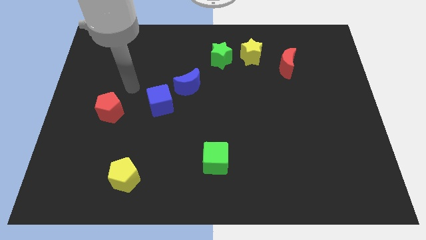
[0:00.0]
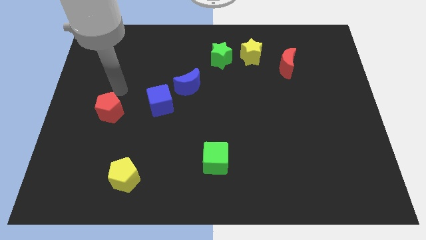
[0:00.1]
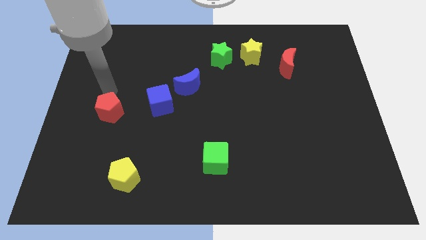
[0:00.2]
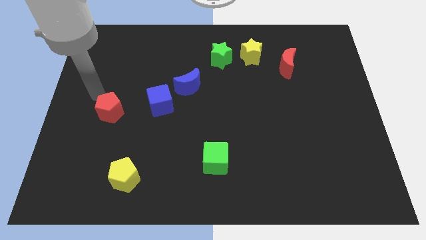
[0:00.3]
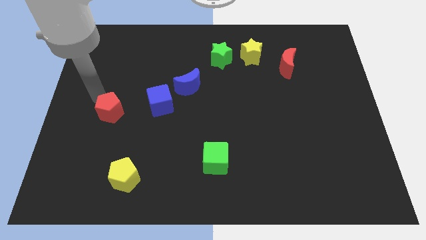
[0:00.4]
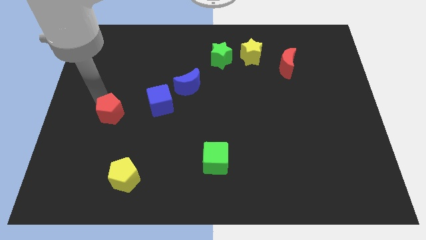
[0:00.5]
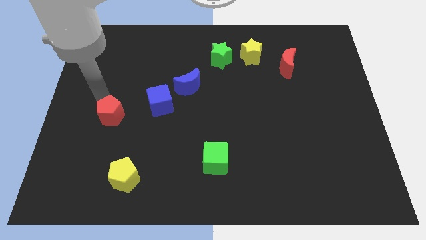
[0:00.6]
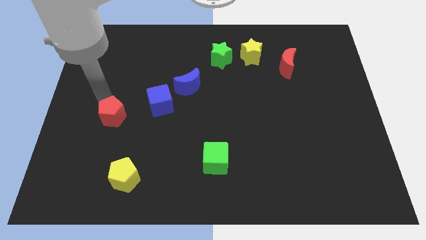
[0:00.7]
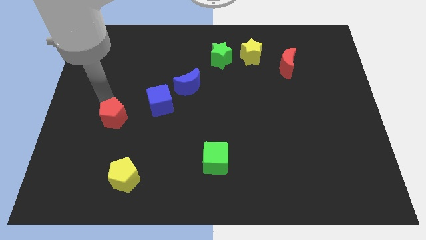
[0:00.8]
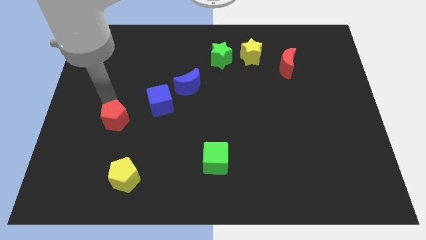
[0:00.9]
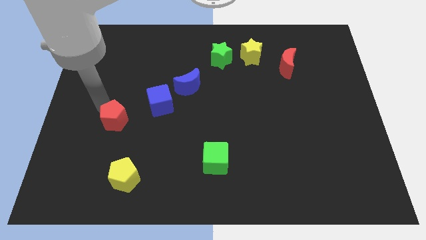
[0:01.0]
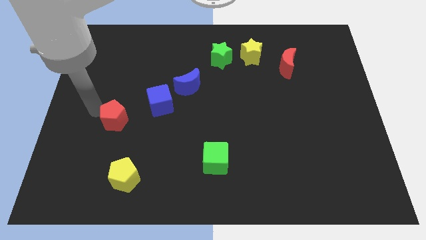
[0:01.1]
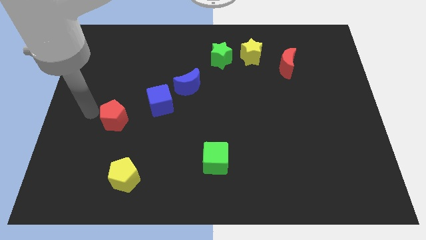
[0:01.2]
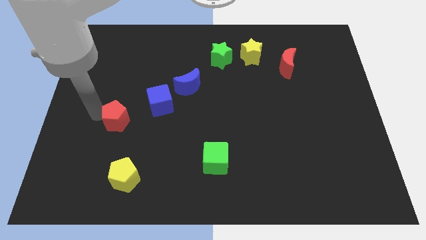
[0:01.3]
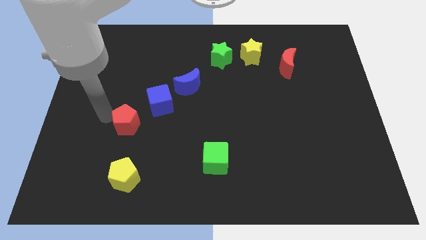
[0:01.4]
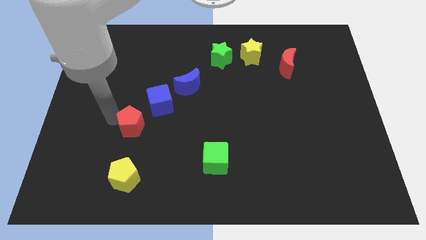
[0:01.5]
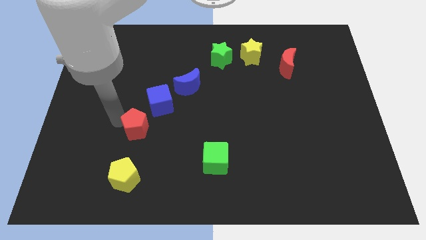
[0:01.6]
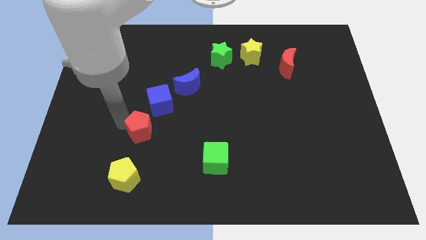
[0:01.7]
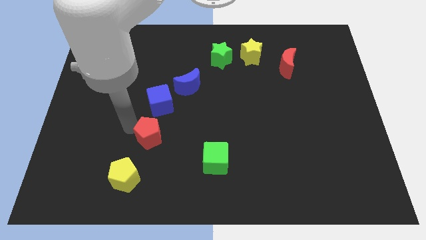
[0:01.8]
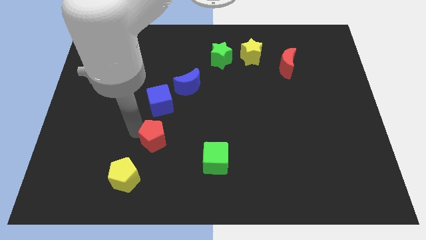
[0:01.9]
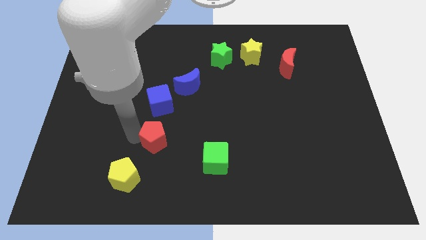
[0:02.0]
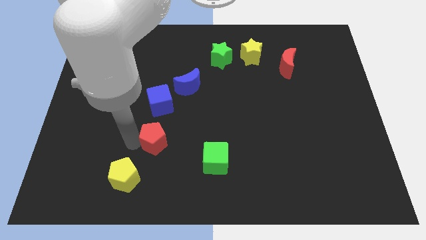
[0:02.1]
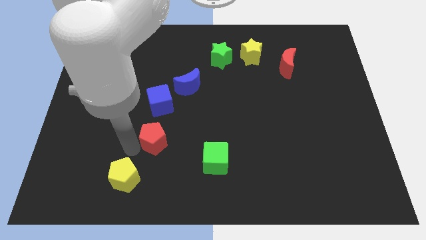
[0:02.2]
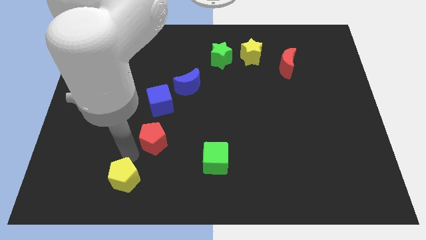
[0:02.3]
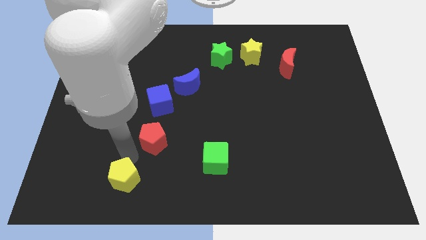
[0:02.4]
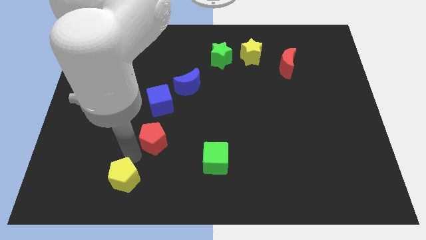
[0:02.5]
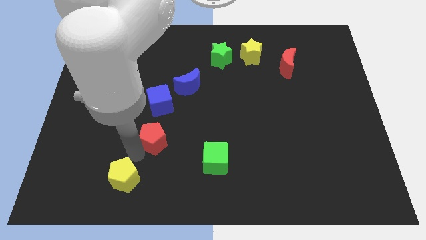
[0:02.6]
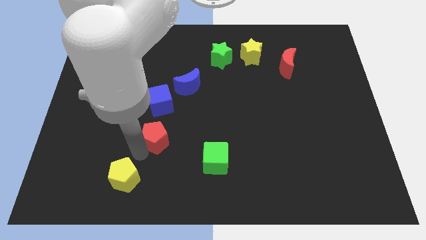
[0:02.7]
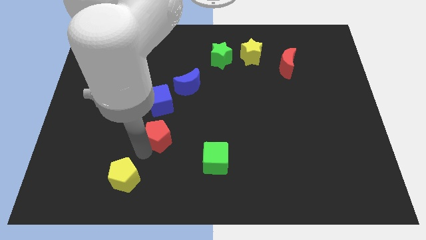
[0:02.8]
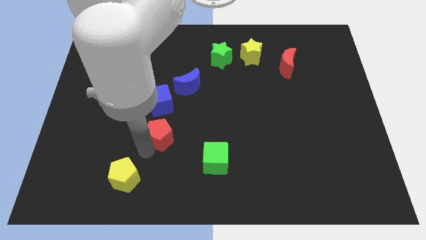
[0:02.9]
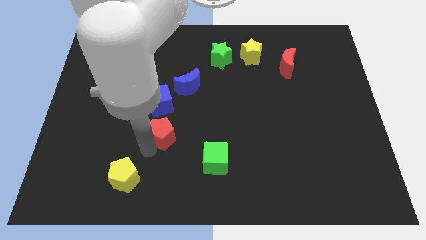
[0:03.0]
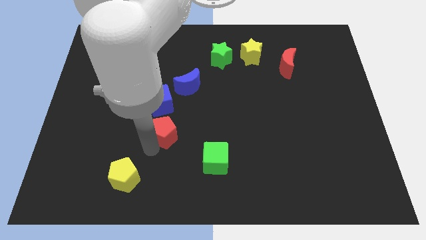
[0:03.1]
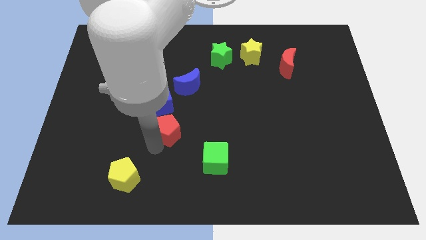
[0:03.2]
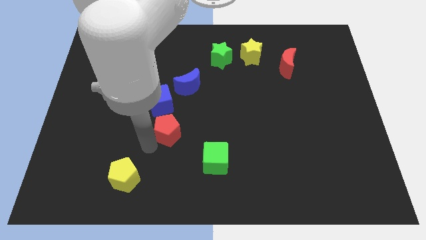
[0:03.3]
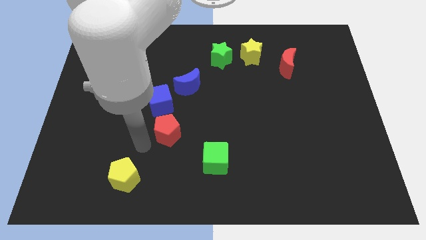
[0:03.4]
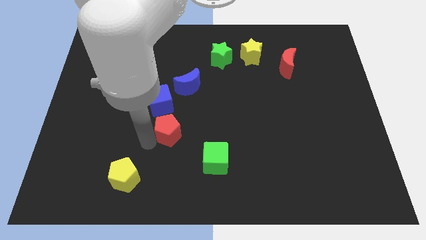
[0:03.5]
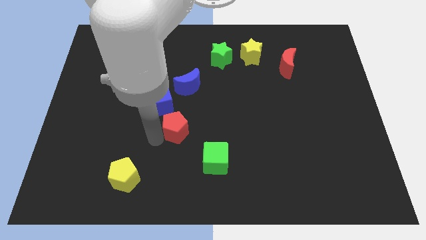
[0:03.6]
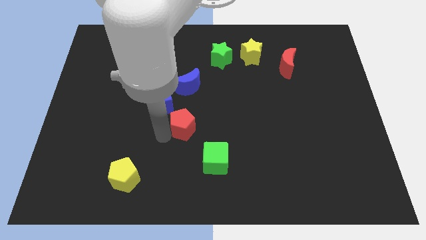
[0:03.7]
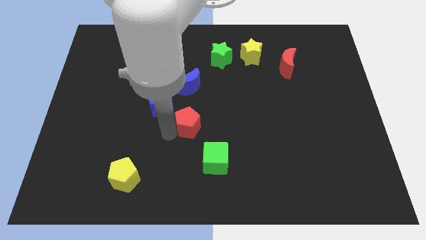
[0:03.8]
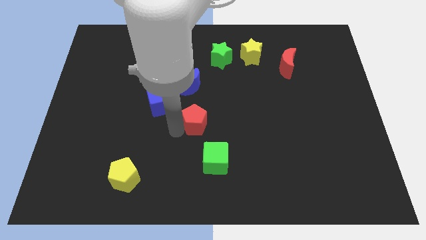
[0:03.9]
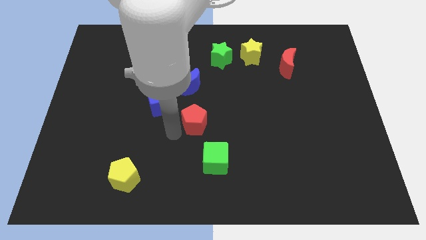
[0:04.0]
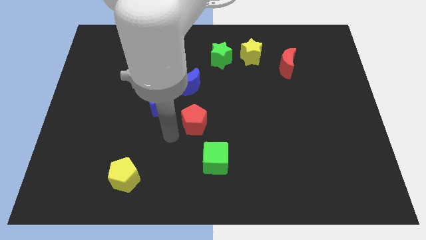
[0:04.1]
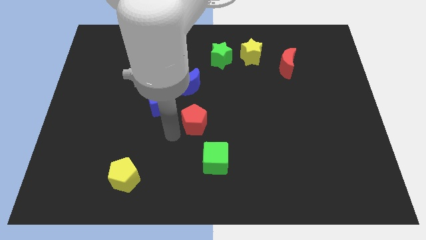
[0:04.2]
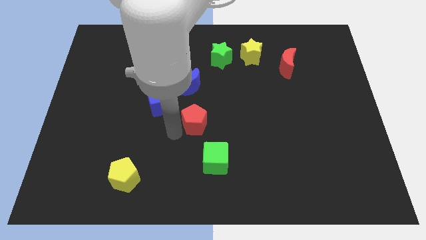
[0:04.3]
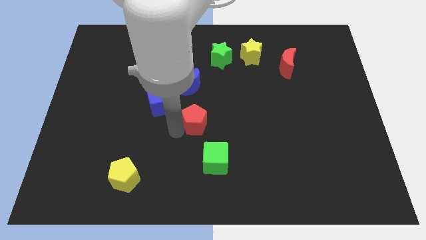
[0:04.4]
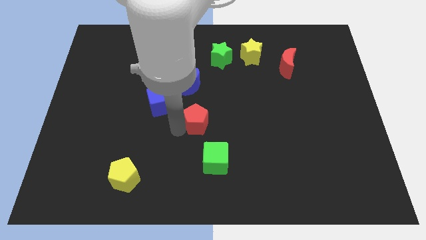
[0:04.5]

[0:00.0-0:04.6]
move the red pentagon to the right

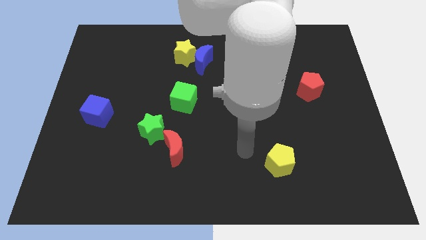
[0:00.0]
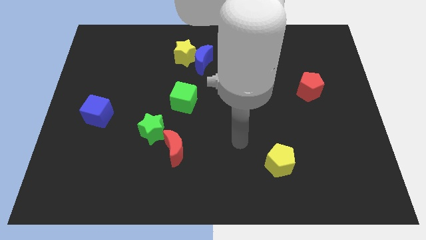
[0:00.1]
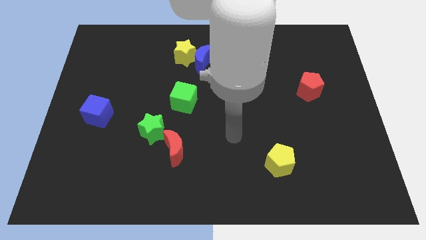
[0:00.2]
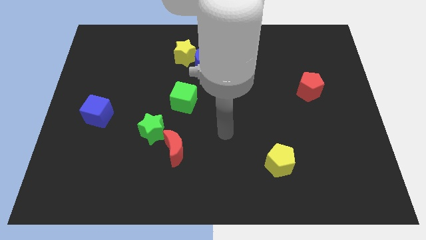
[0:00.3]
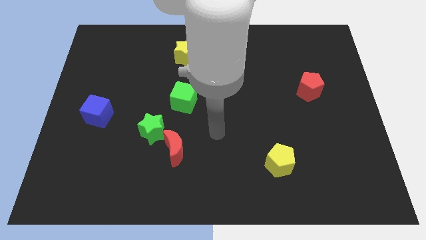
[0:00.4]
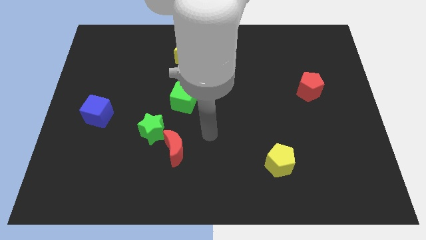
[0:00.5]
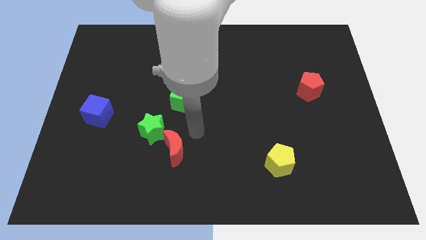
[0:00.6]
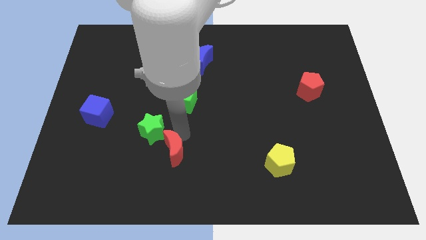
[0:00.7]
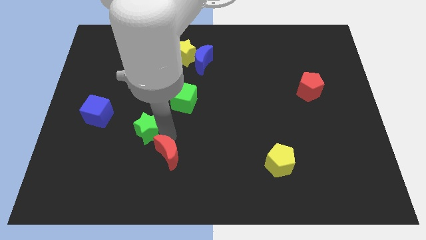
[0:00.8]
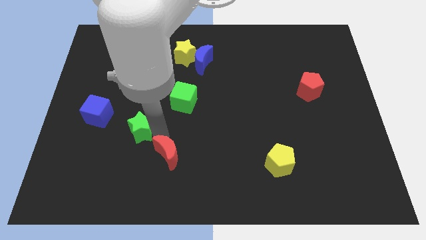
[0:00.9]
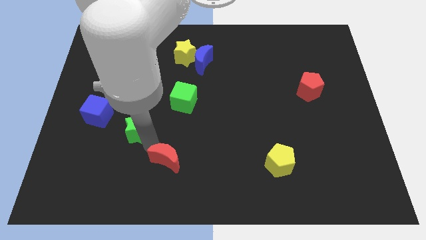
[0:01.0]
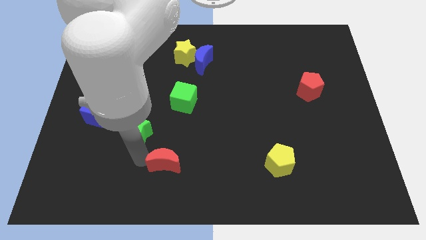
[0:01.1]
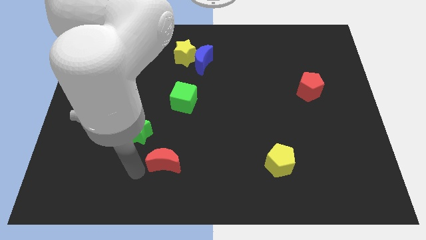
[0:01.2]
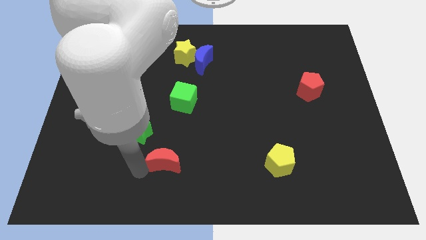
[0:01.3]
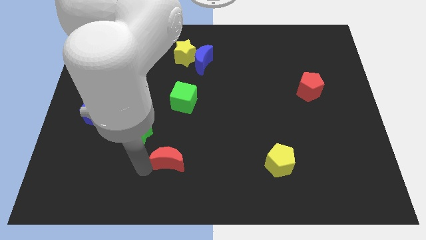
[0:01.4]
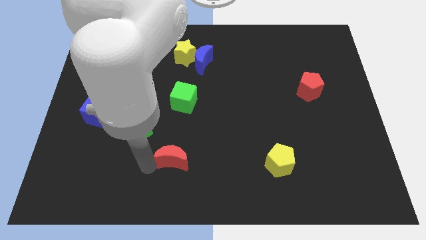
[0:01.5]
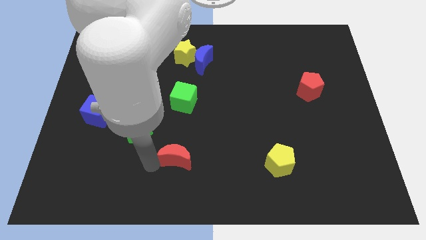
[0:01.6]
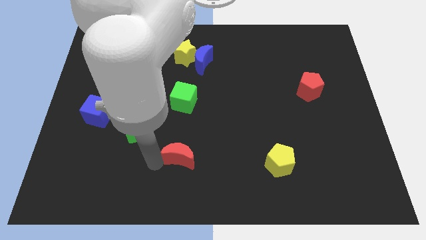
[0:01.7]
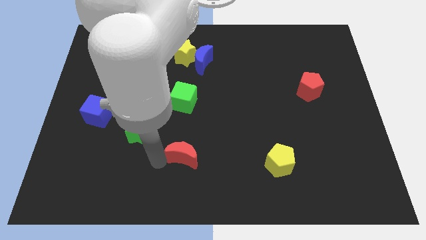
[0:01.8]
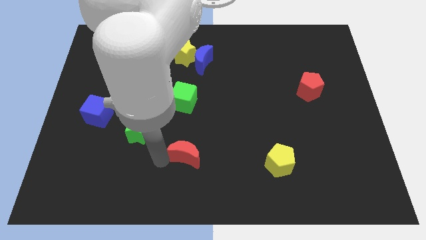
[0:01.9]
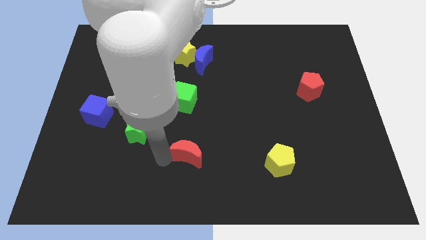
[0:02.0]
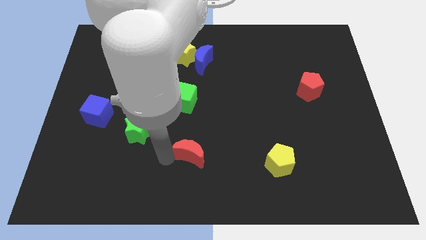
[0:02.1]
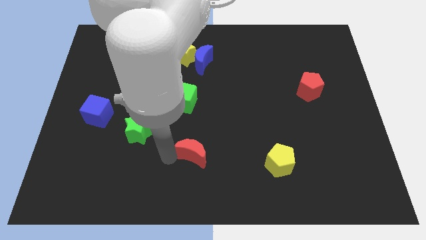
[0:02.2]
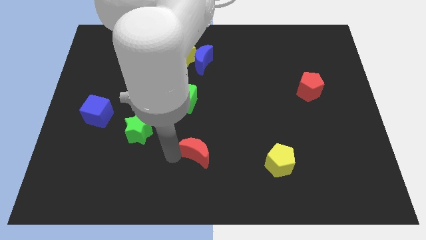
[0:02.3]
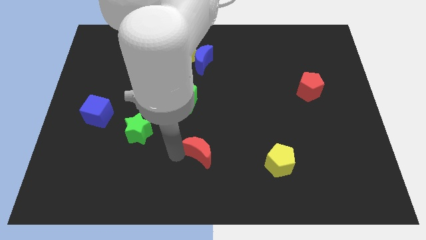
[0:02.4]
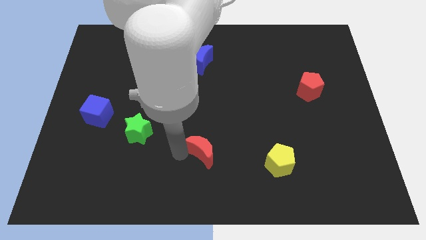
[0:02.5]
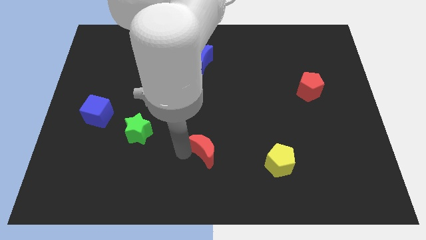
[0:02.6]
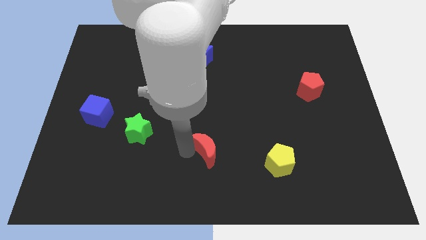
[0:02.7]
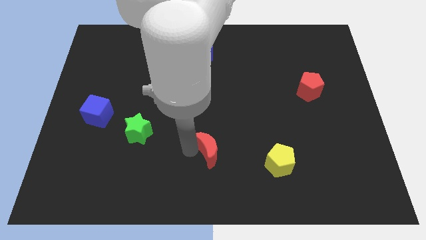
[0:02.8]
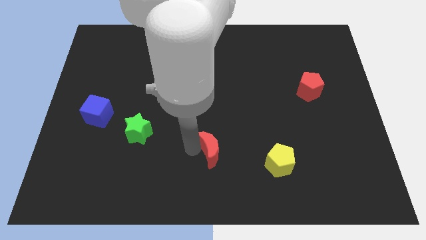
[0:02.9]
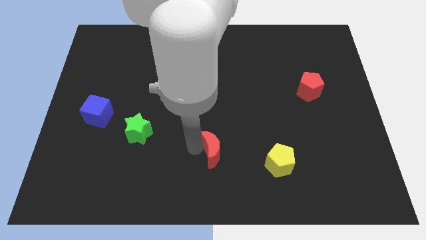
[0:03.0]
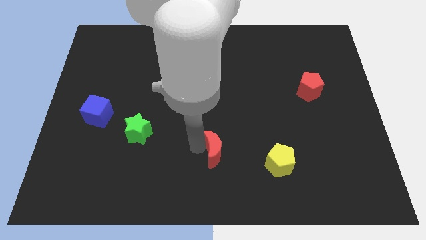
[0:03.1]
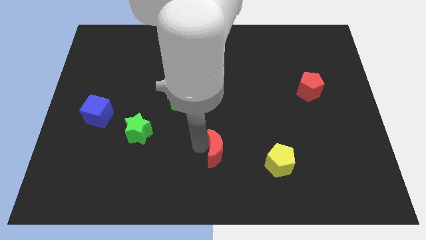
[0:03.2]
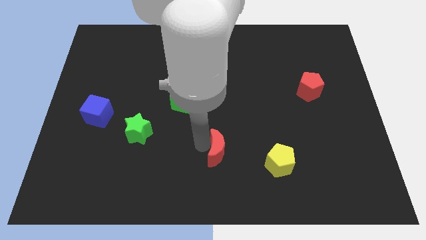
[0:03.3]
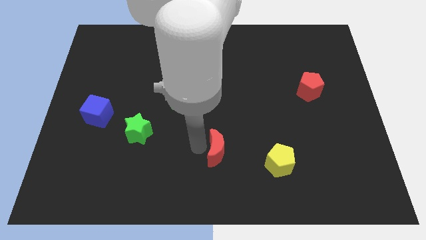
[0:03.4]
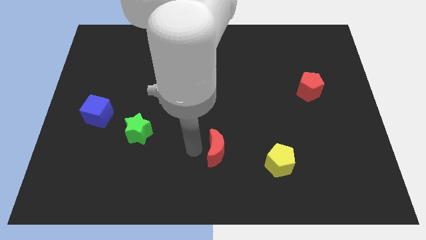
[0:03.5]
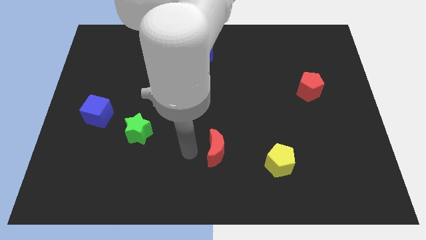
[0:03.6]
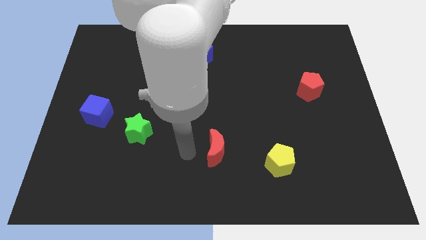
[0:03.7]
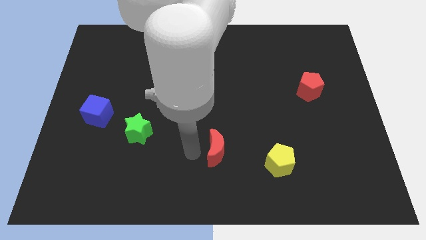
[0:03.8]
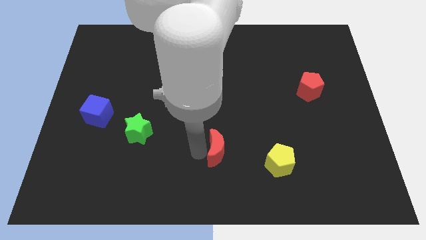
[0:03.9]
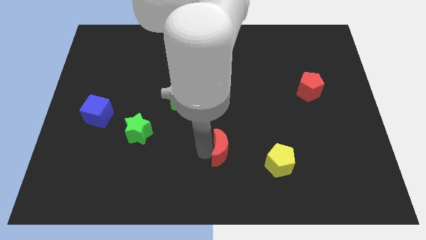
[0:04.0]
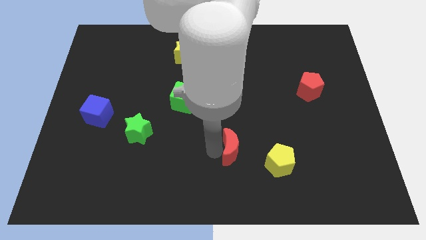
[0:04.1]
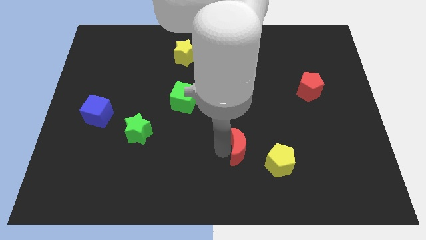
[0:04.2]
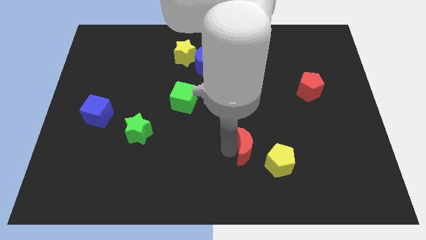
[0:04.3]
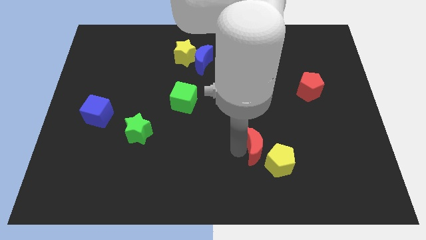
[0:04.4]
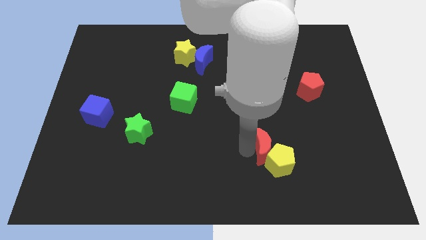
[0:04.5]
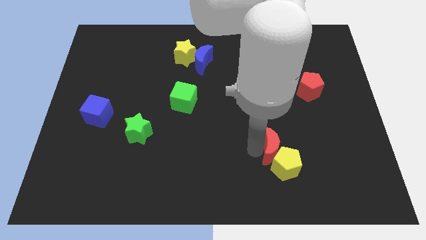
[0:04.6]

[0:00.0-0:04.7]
push the red moon to the right
